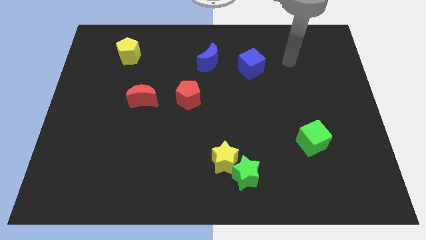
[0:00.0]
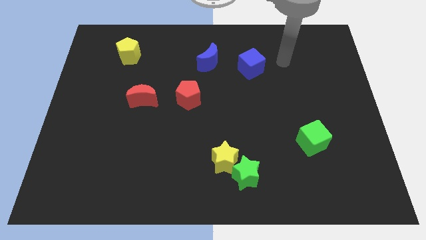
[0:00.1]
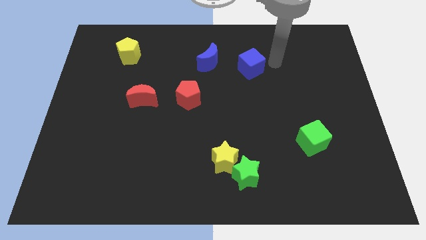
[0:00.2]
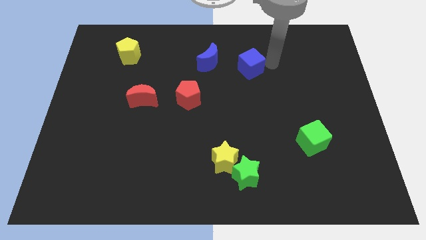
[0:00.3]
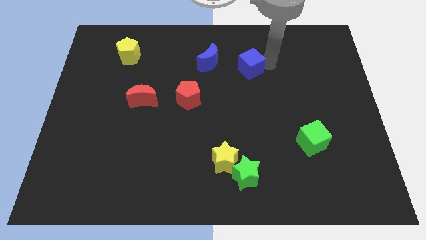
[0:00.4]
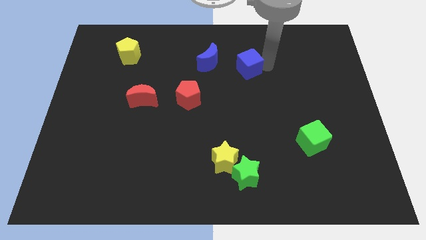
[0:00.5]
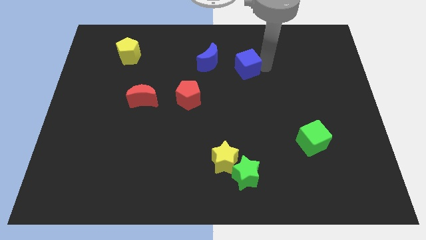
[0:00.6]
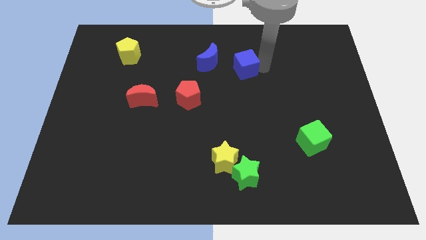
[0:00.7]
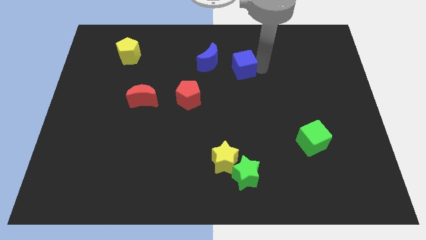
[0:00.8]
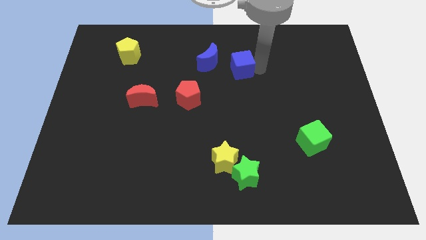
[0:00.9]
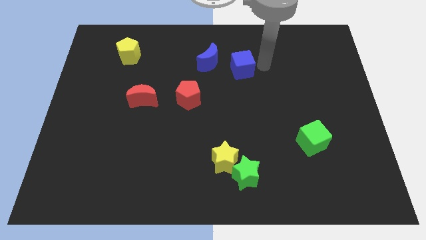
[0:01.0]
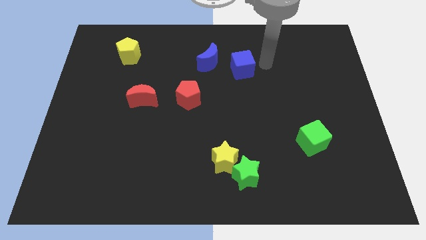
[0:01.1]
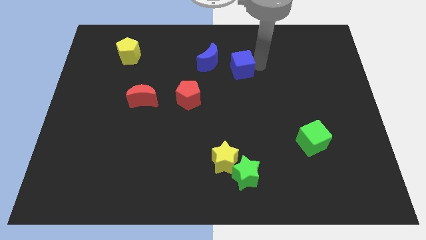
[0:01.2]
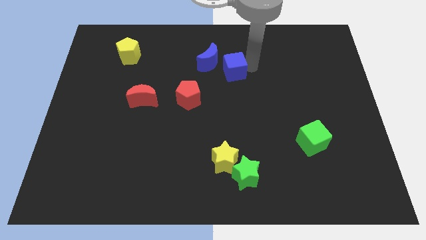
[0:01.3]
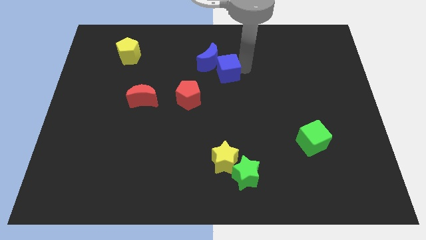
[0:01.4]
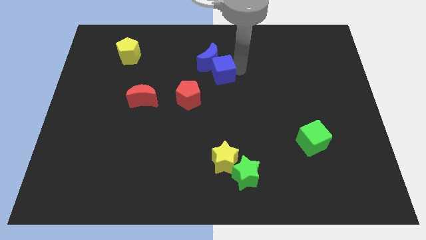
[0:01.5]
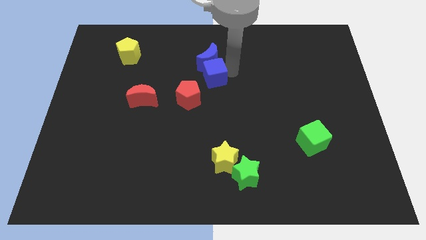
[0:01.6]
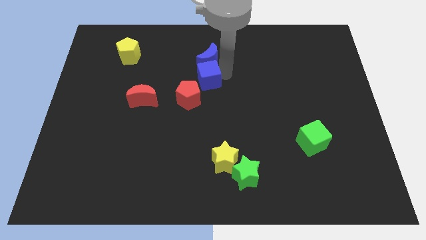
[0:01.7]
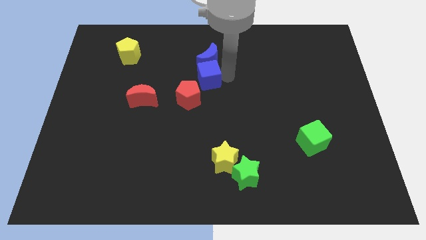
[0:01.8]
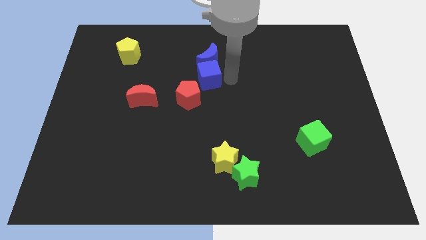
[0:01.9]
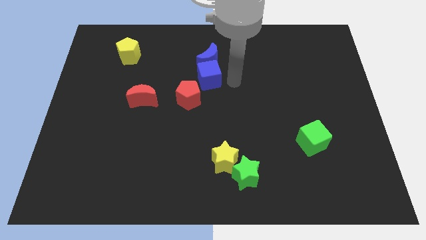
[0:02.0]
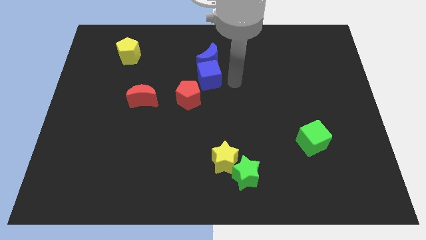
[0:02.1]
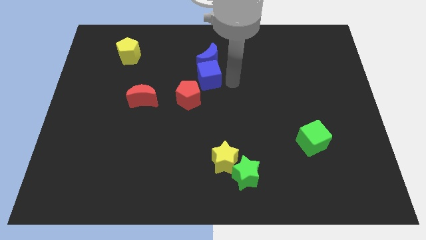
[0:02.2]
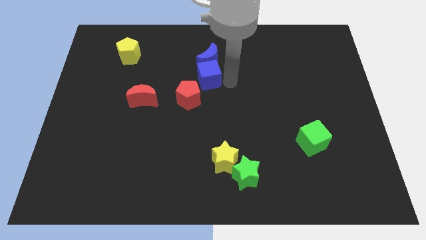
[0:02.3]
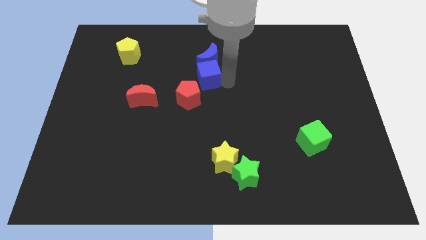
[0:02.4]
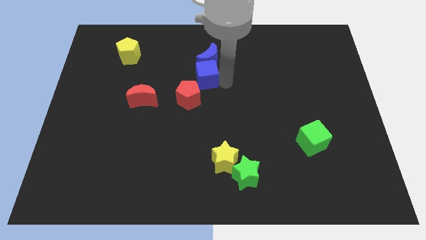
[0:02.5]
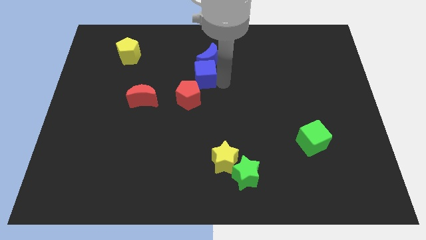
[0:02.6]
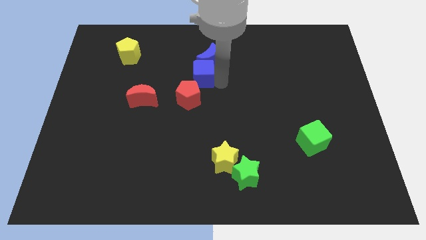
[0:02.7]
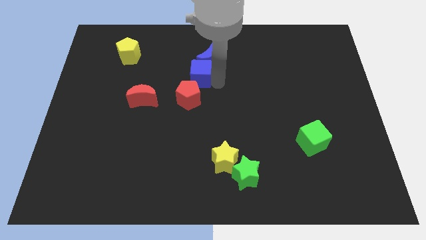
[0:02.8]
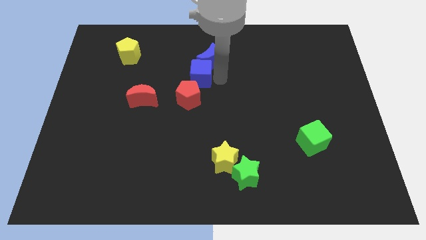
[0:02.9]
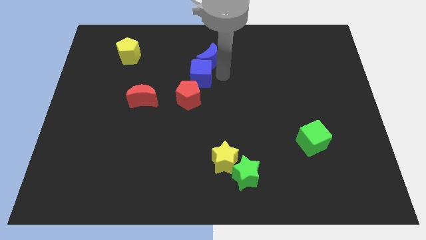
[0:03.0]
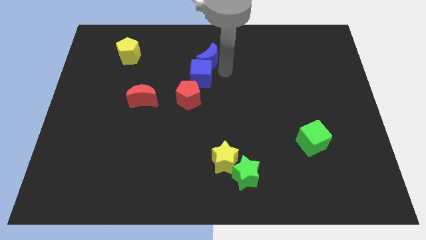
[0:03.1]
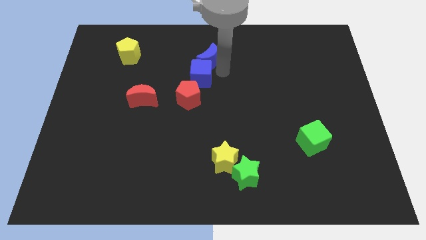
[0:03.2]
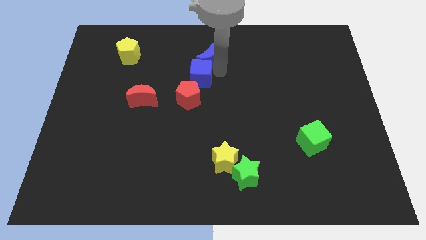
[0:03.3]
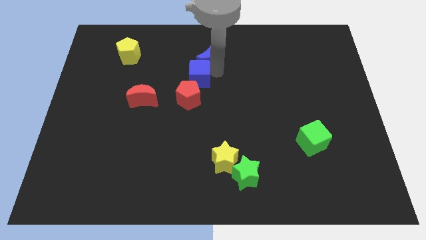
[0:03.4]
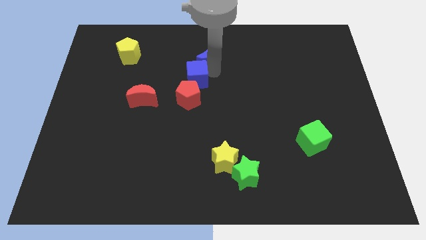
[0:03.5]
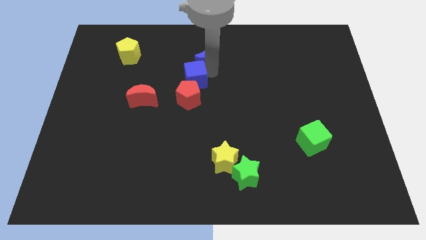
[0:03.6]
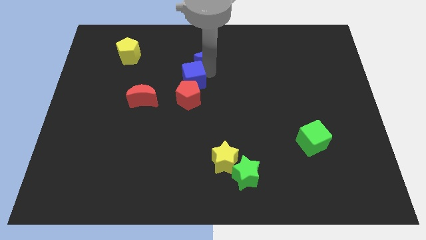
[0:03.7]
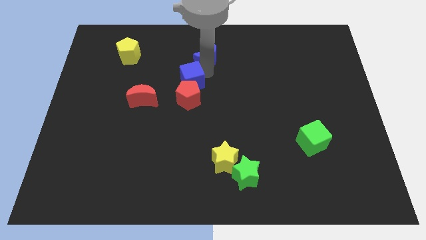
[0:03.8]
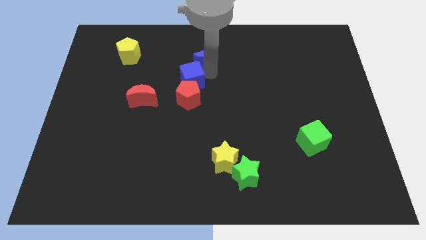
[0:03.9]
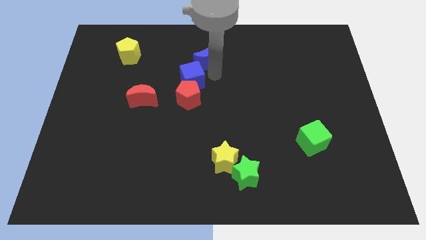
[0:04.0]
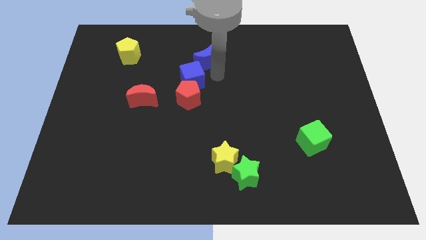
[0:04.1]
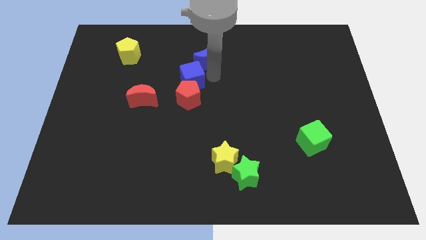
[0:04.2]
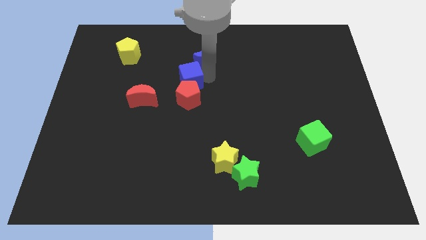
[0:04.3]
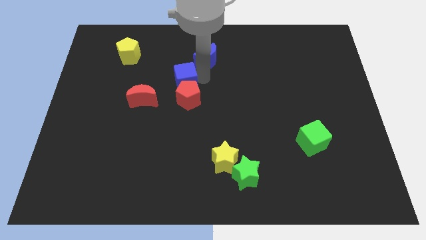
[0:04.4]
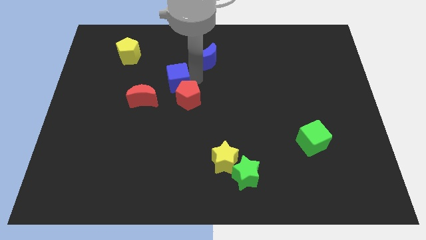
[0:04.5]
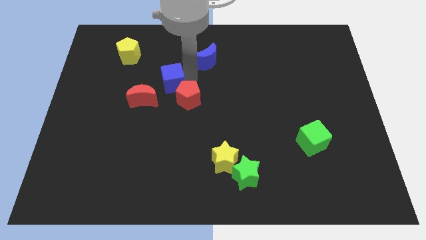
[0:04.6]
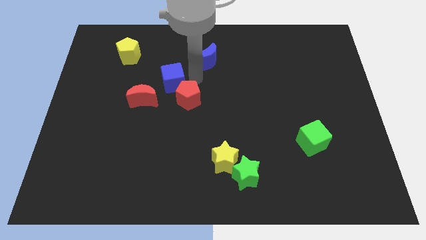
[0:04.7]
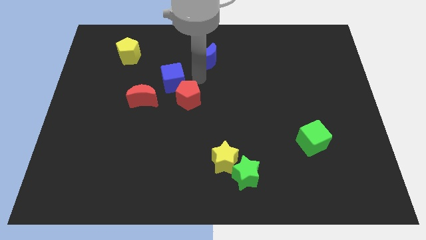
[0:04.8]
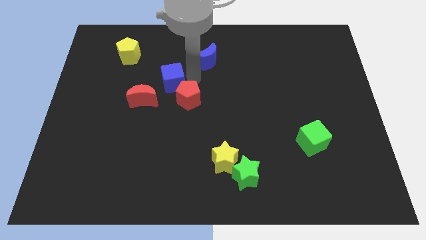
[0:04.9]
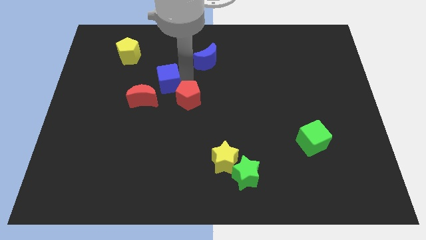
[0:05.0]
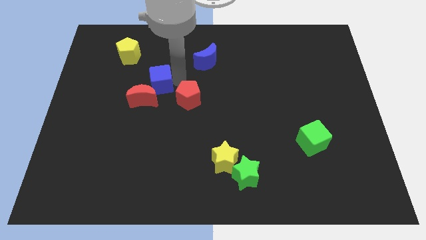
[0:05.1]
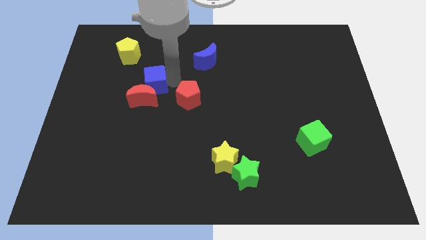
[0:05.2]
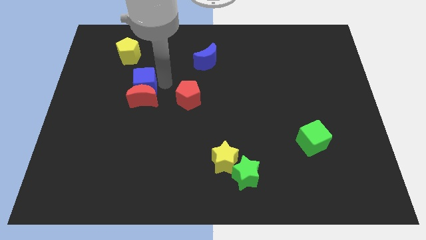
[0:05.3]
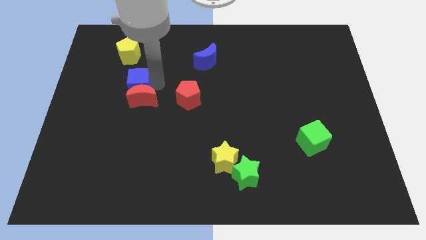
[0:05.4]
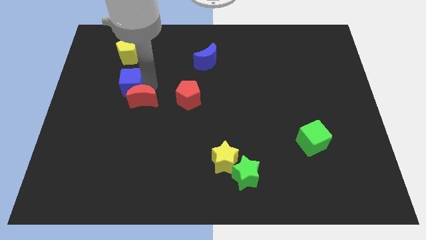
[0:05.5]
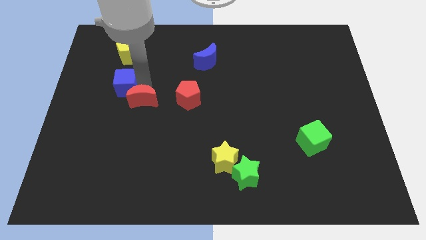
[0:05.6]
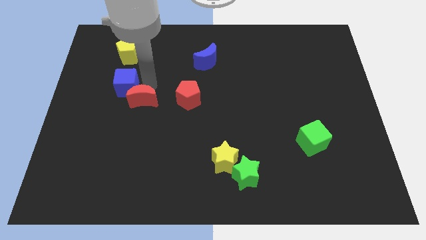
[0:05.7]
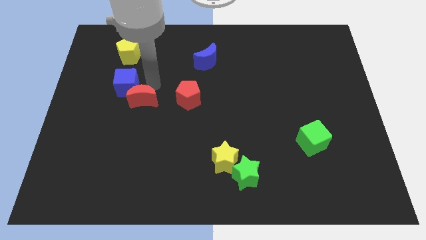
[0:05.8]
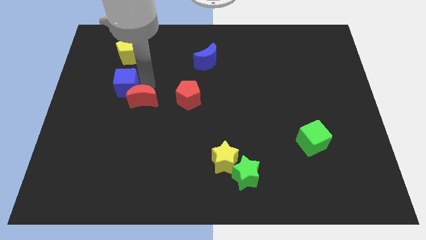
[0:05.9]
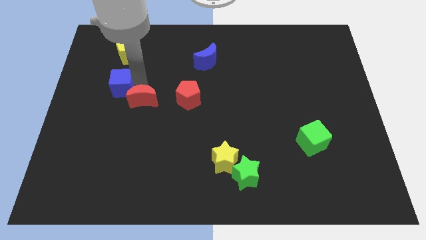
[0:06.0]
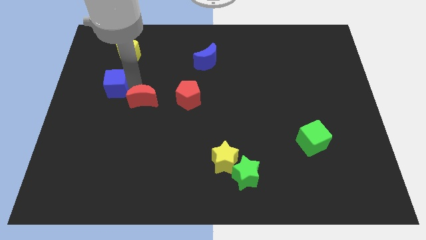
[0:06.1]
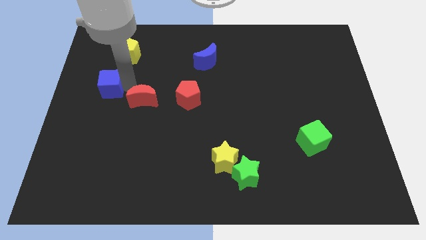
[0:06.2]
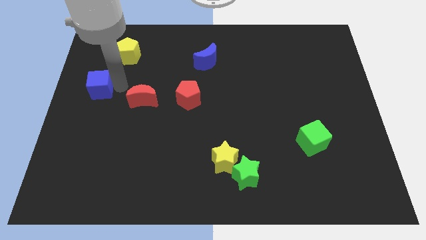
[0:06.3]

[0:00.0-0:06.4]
put the blue cube to the center left
